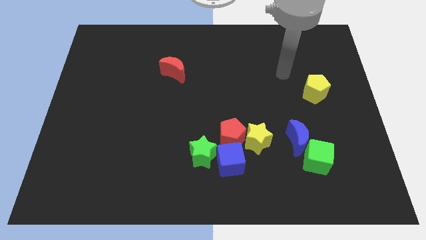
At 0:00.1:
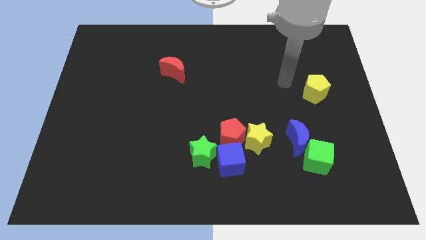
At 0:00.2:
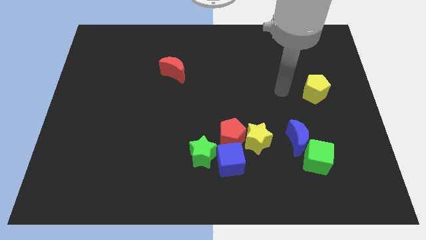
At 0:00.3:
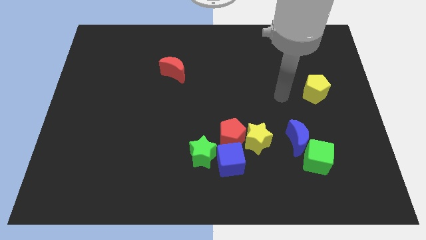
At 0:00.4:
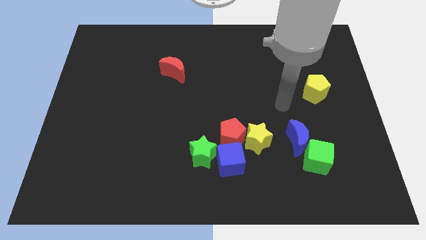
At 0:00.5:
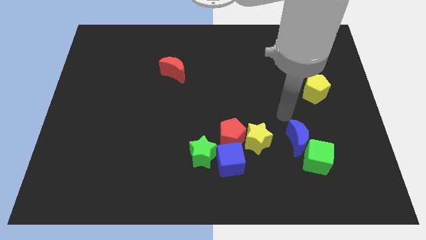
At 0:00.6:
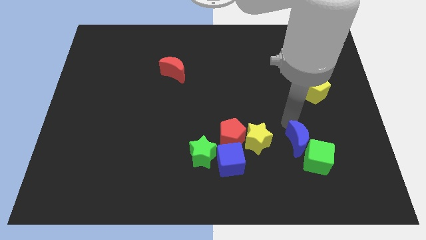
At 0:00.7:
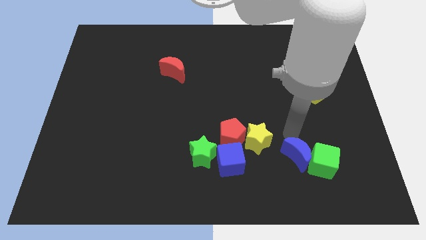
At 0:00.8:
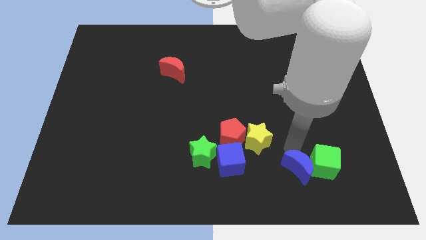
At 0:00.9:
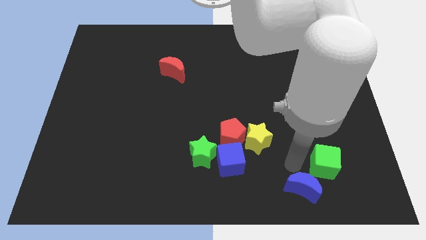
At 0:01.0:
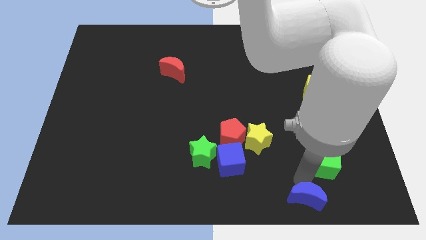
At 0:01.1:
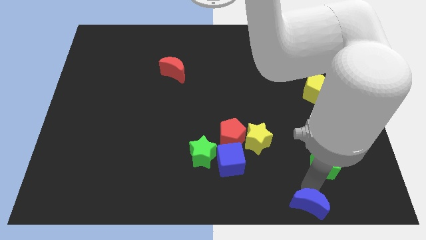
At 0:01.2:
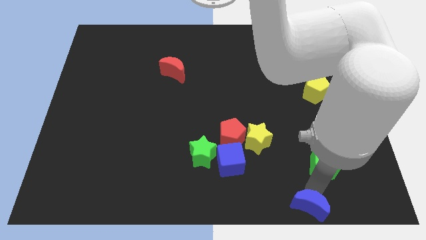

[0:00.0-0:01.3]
move the green cube away from the blue moon

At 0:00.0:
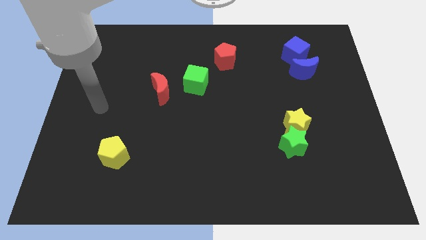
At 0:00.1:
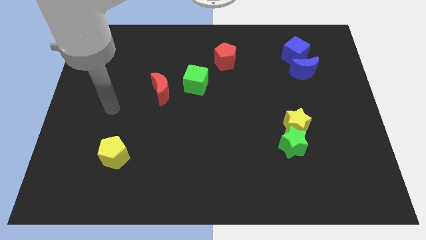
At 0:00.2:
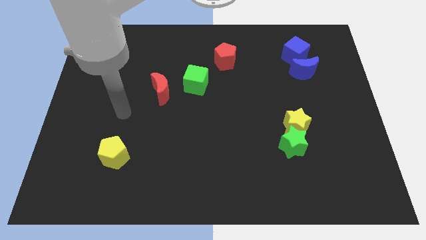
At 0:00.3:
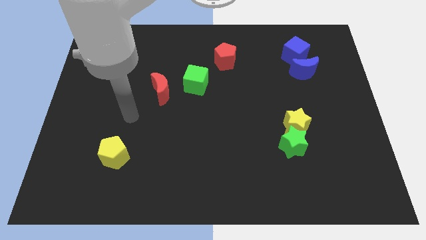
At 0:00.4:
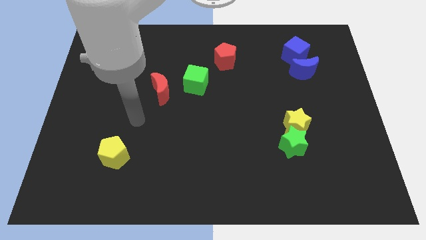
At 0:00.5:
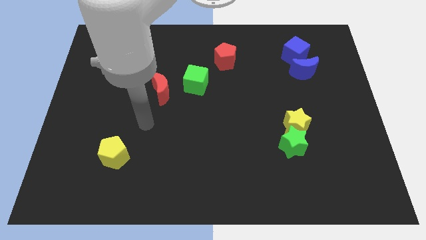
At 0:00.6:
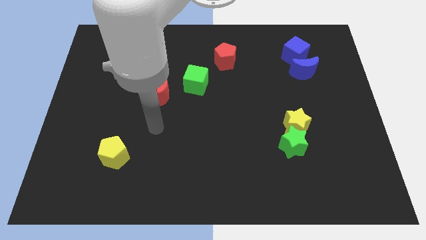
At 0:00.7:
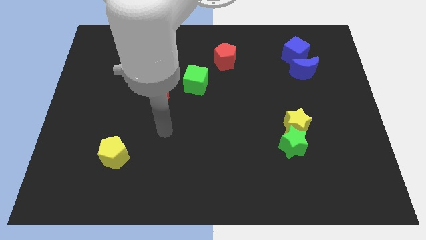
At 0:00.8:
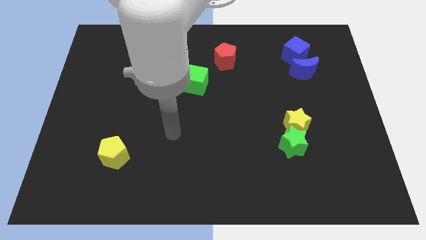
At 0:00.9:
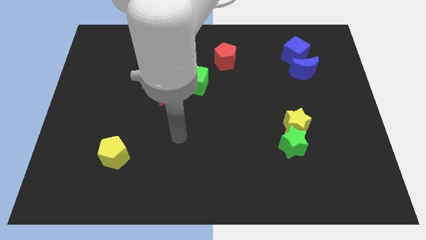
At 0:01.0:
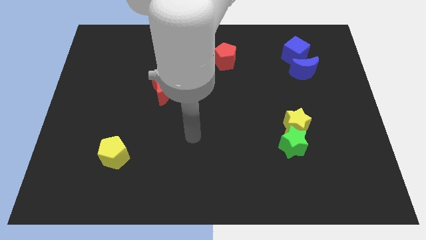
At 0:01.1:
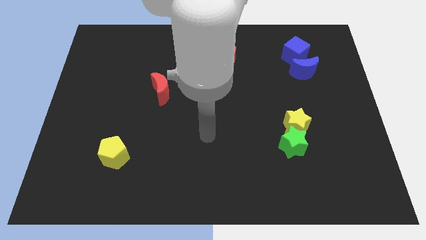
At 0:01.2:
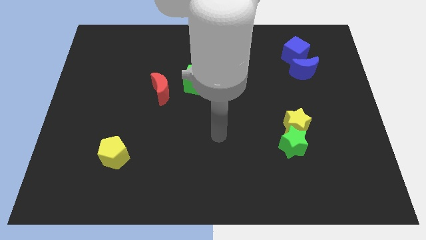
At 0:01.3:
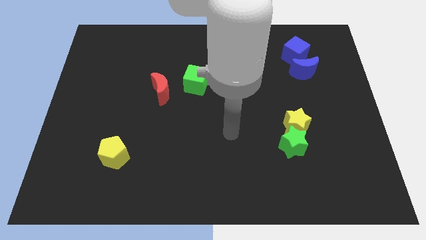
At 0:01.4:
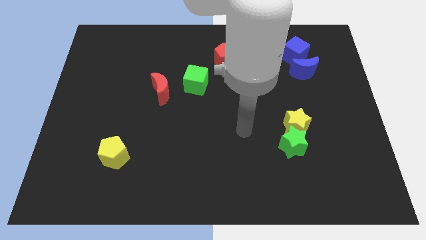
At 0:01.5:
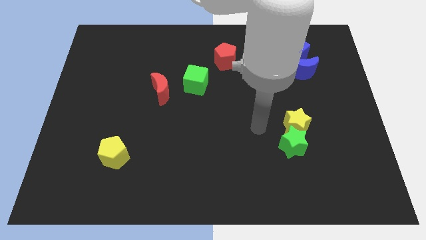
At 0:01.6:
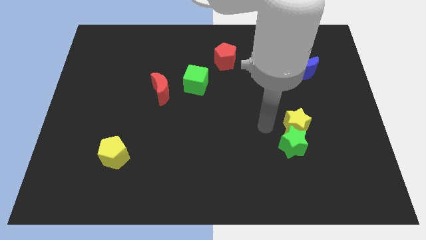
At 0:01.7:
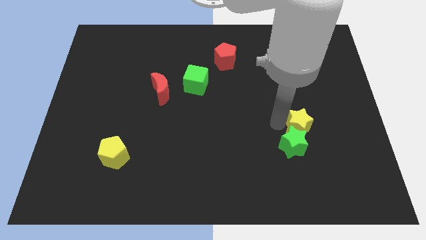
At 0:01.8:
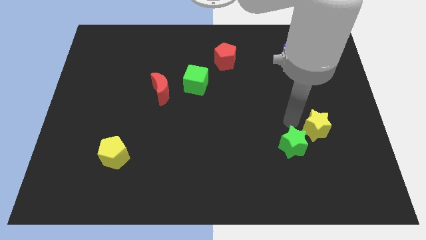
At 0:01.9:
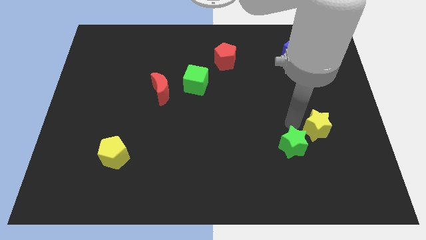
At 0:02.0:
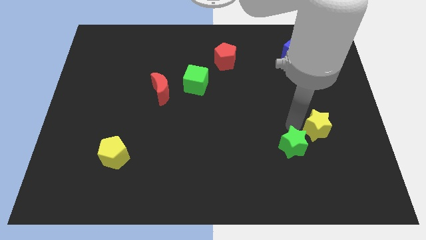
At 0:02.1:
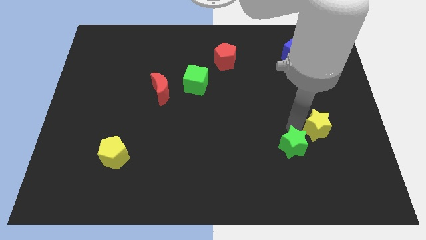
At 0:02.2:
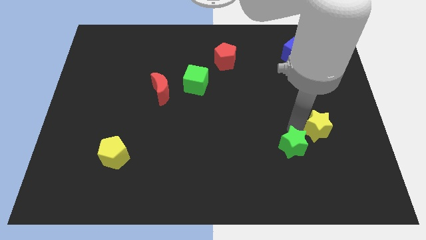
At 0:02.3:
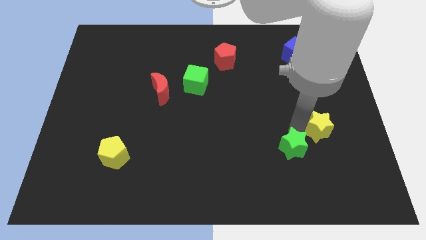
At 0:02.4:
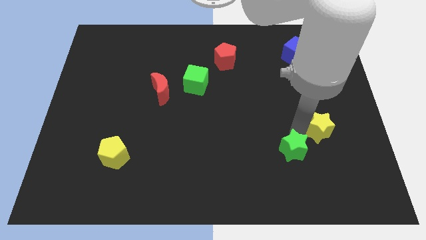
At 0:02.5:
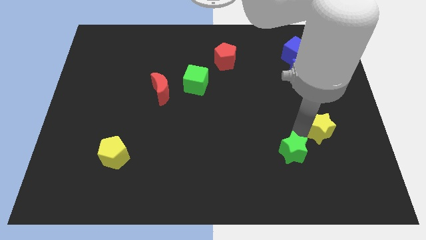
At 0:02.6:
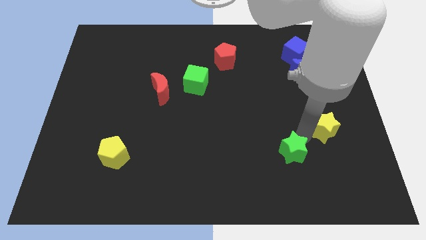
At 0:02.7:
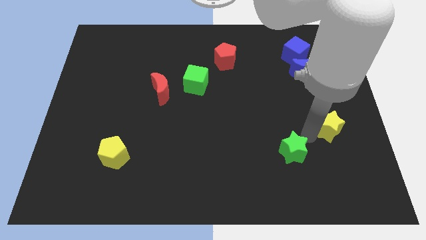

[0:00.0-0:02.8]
separate the green star from the yellow star

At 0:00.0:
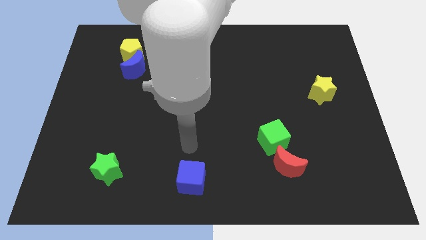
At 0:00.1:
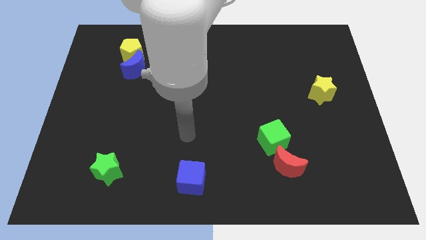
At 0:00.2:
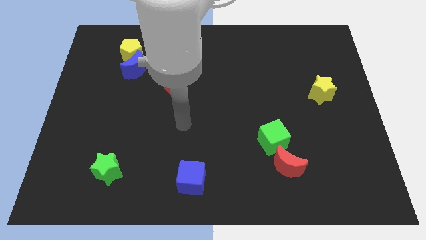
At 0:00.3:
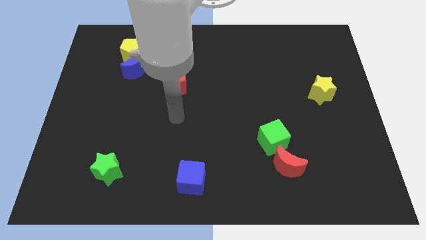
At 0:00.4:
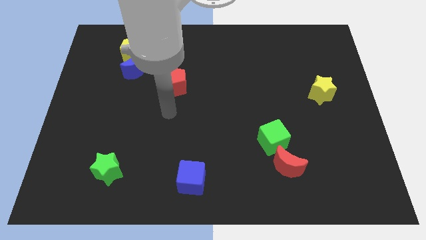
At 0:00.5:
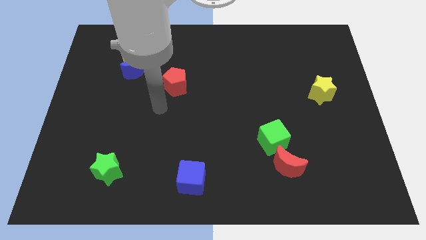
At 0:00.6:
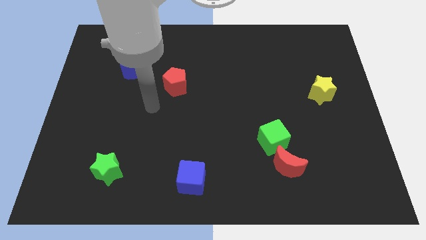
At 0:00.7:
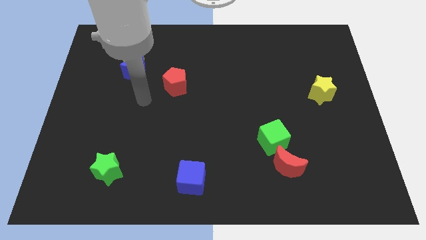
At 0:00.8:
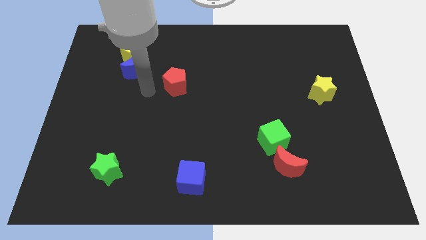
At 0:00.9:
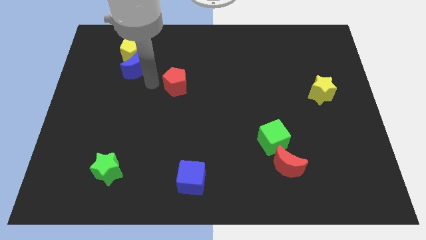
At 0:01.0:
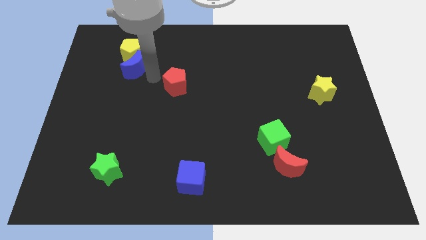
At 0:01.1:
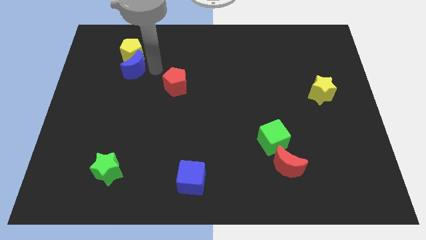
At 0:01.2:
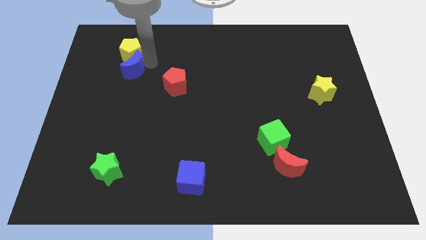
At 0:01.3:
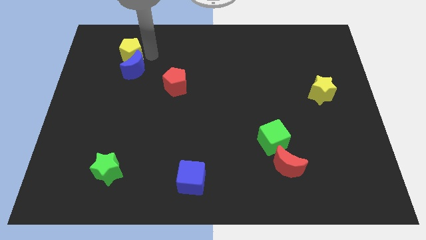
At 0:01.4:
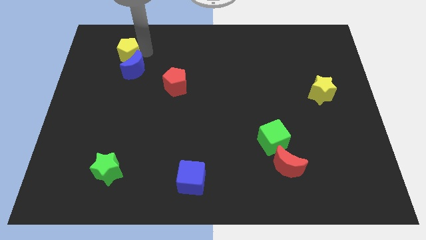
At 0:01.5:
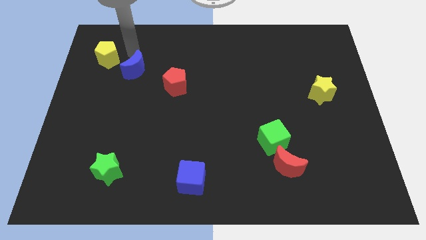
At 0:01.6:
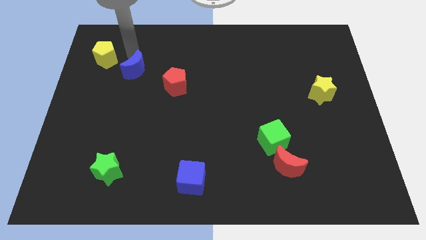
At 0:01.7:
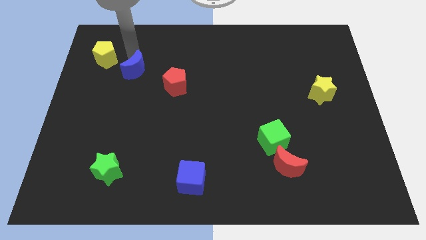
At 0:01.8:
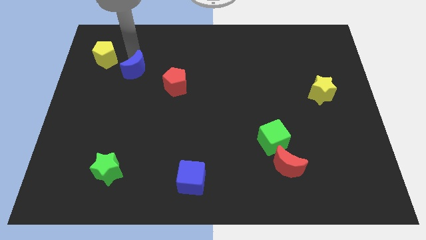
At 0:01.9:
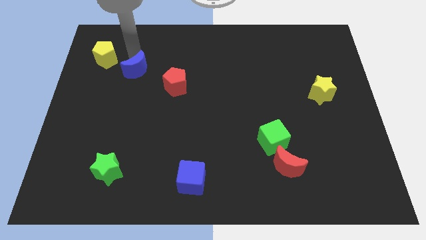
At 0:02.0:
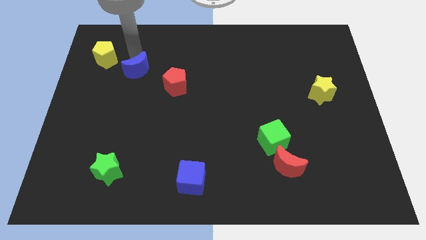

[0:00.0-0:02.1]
move the blue moon away from the yellow pentagon

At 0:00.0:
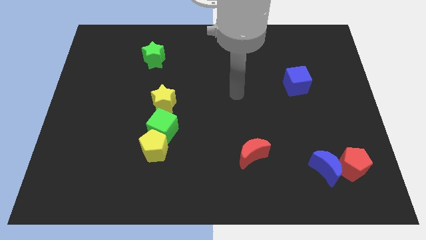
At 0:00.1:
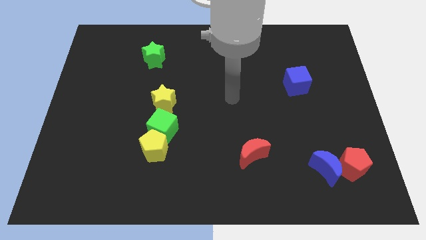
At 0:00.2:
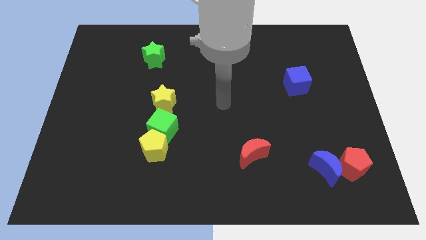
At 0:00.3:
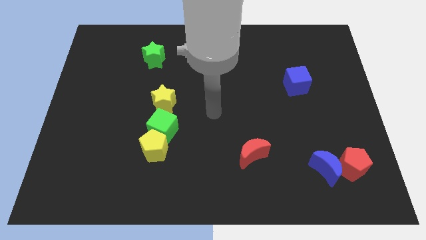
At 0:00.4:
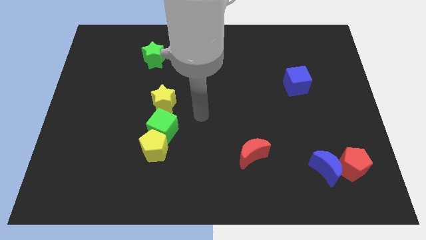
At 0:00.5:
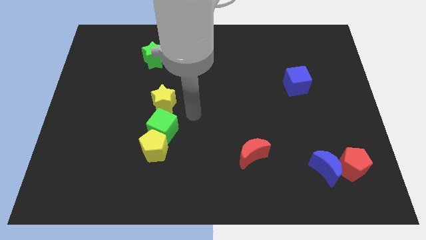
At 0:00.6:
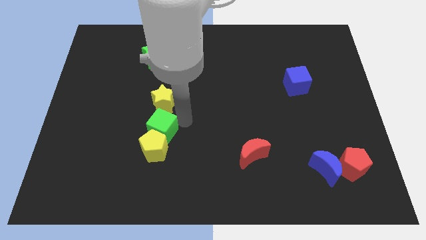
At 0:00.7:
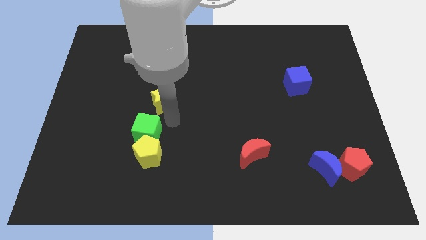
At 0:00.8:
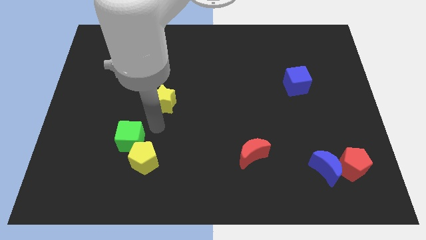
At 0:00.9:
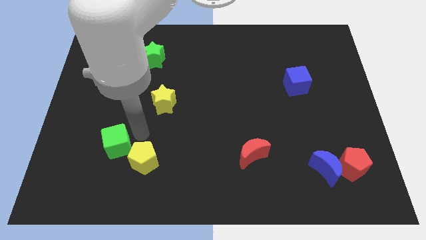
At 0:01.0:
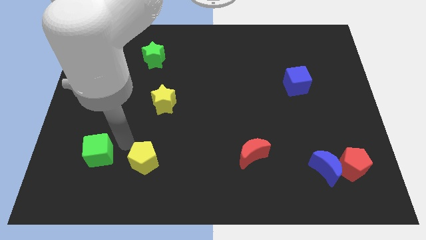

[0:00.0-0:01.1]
separate the yellow pentagon from the green cube

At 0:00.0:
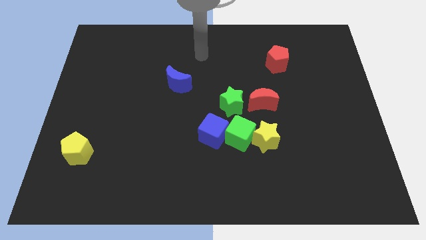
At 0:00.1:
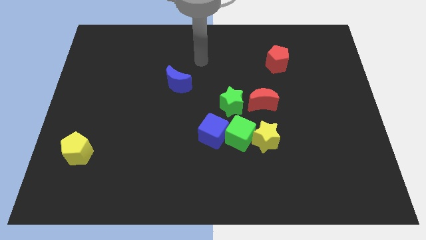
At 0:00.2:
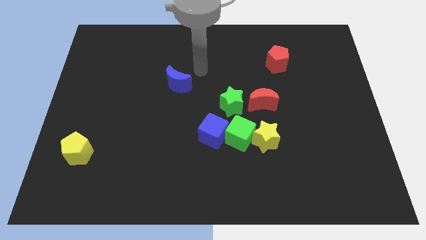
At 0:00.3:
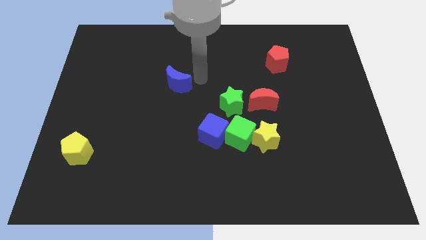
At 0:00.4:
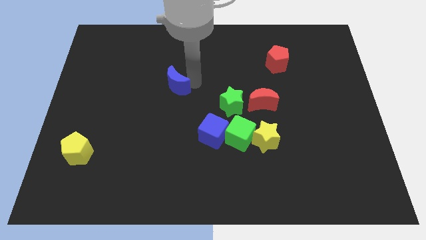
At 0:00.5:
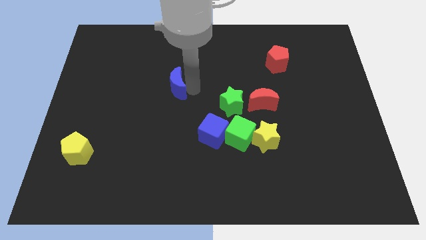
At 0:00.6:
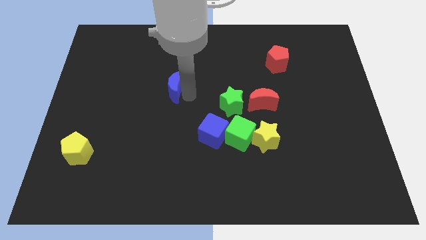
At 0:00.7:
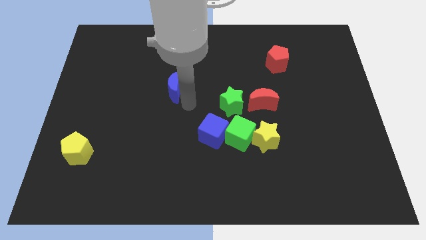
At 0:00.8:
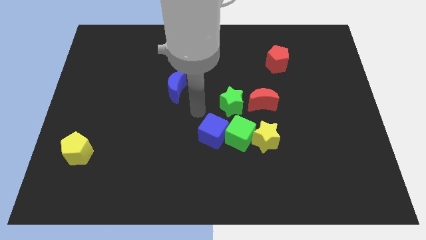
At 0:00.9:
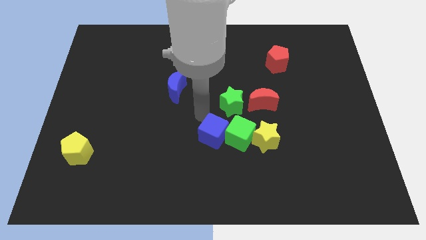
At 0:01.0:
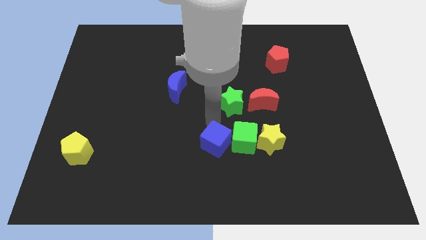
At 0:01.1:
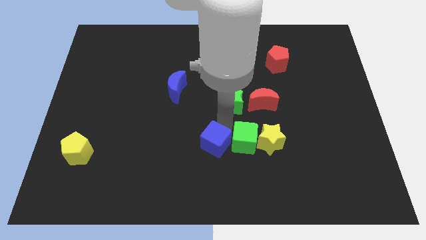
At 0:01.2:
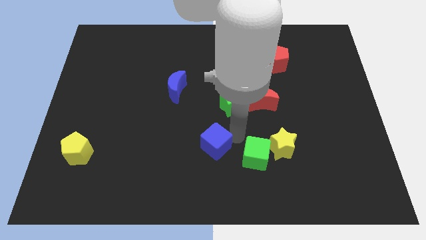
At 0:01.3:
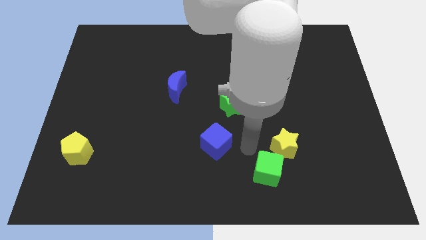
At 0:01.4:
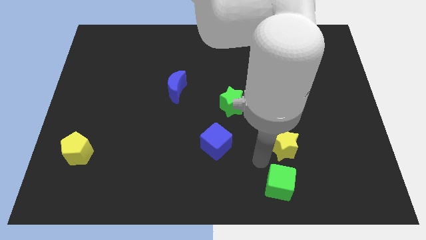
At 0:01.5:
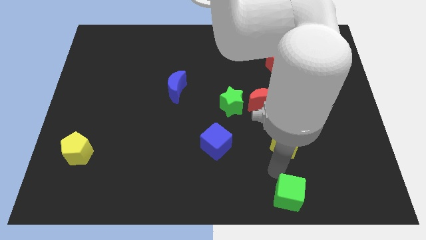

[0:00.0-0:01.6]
separate the yellow star from the green cube

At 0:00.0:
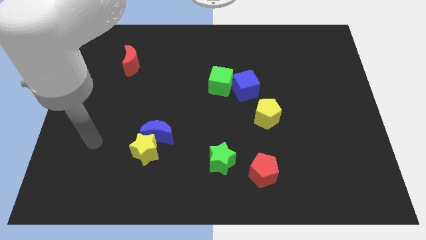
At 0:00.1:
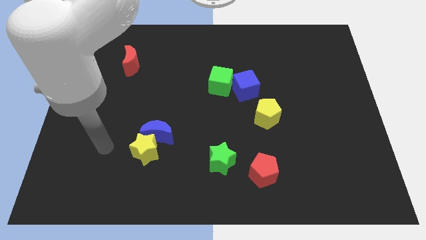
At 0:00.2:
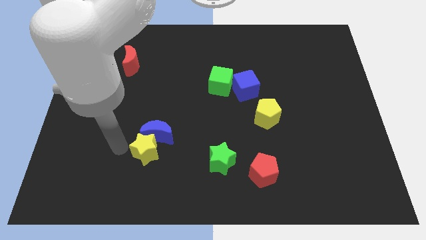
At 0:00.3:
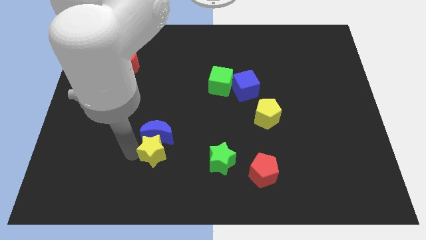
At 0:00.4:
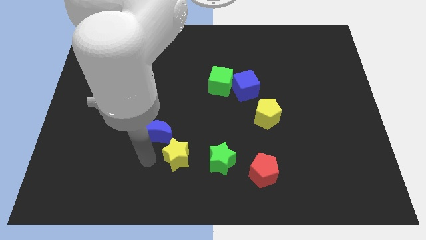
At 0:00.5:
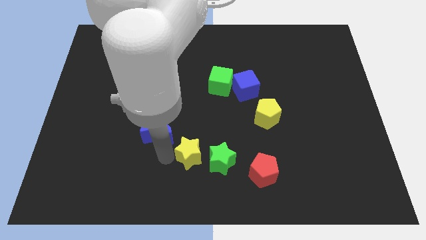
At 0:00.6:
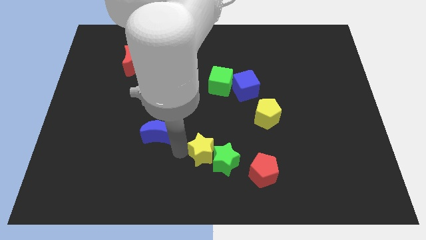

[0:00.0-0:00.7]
move the blue moon away from the yellow star
